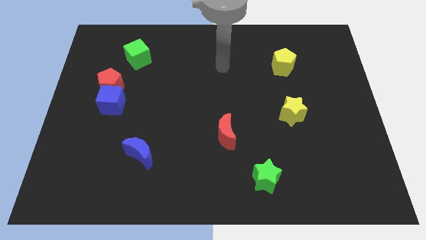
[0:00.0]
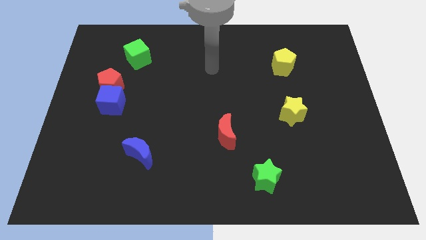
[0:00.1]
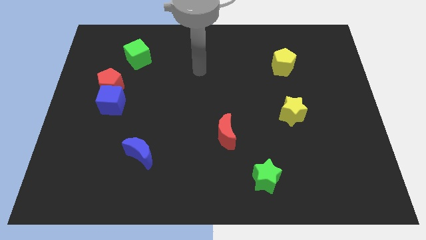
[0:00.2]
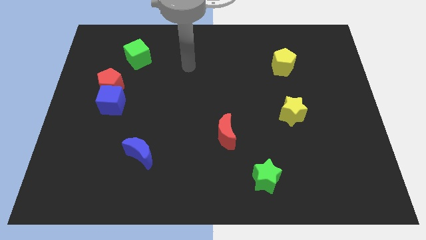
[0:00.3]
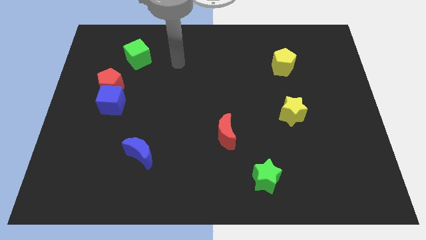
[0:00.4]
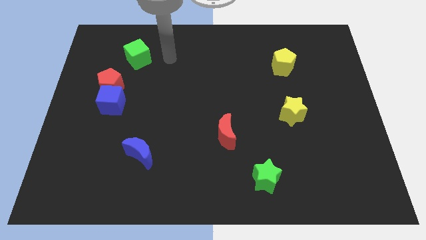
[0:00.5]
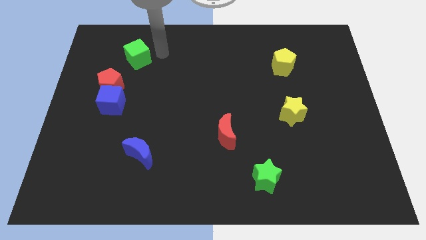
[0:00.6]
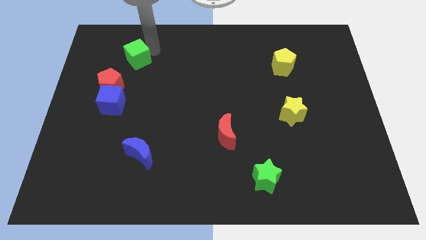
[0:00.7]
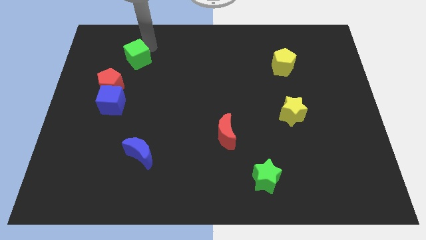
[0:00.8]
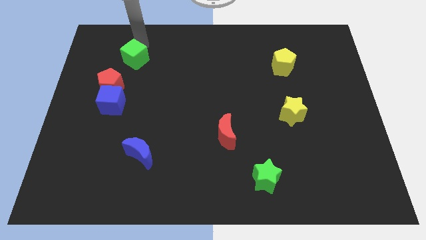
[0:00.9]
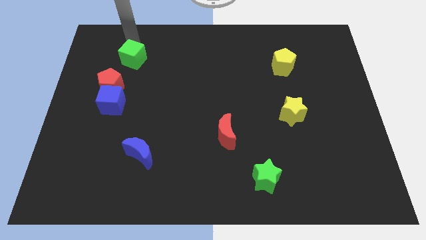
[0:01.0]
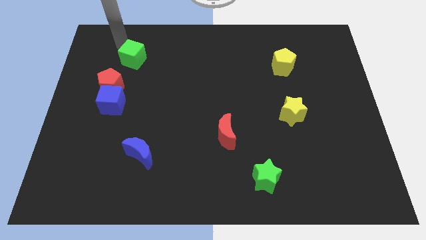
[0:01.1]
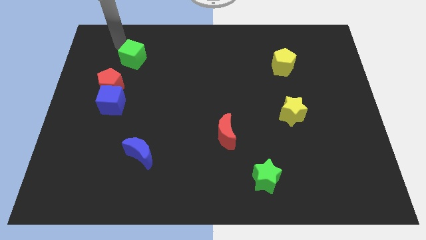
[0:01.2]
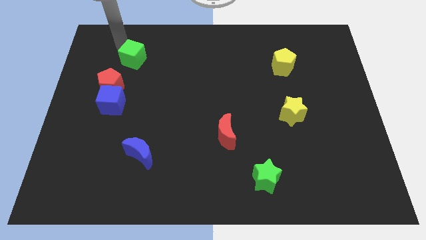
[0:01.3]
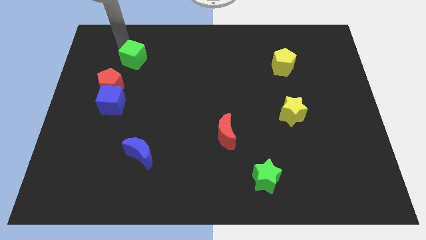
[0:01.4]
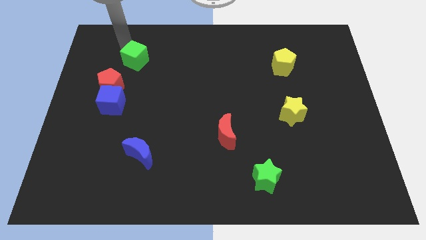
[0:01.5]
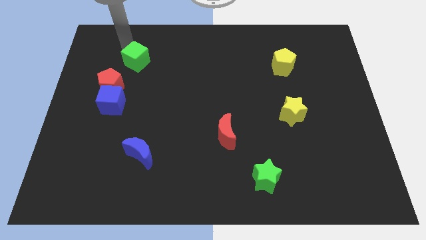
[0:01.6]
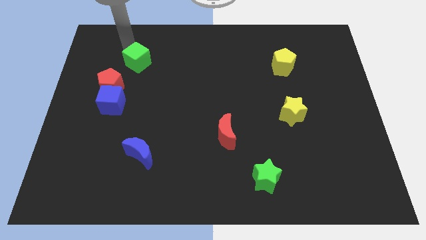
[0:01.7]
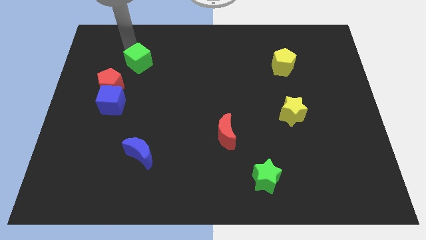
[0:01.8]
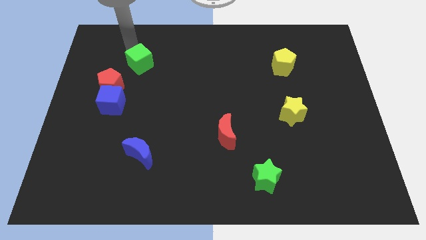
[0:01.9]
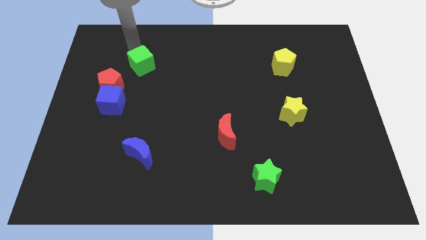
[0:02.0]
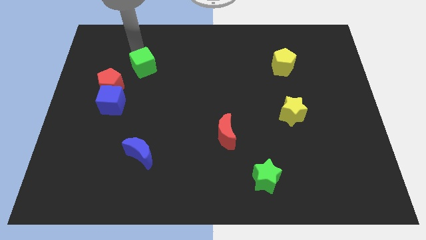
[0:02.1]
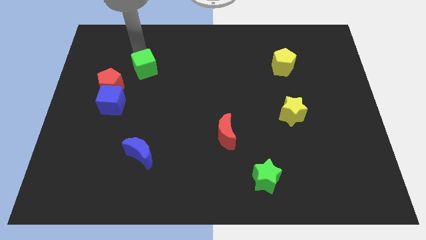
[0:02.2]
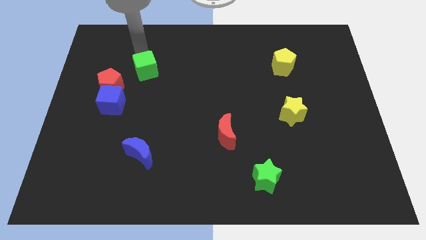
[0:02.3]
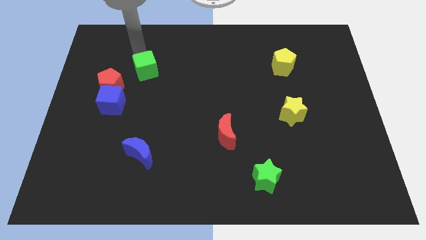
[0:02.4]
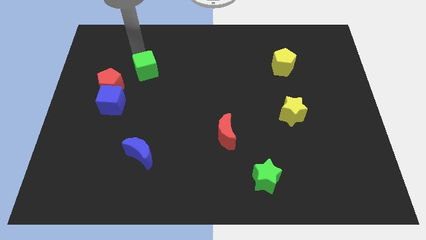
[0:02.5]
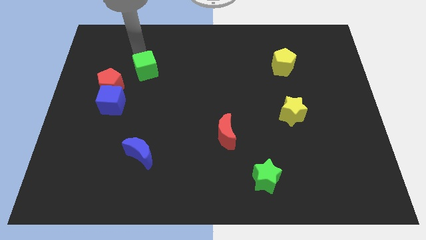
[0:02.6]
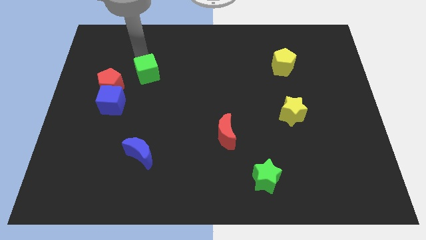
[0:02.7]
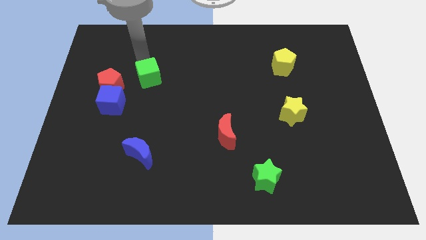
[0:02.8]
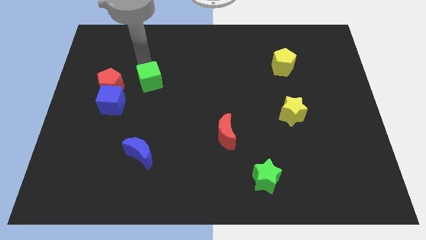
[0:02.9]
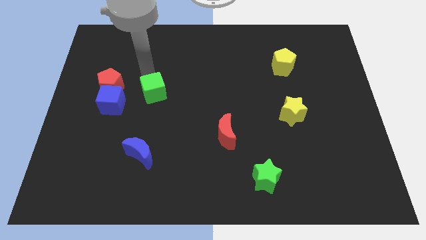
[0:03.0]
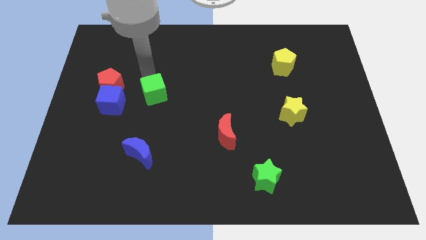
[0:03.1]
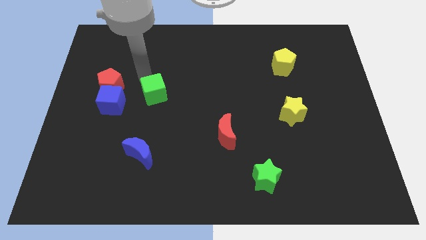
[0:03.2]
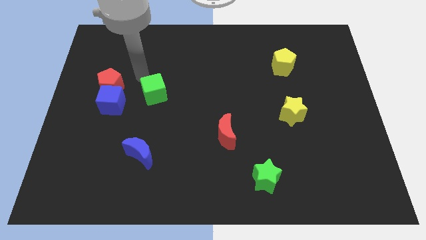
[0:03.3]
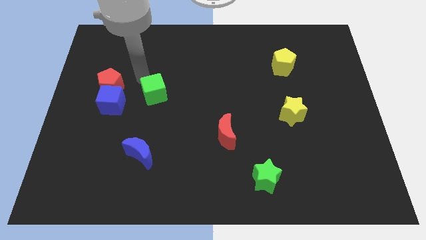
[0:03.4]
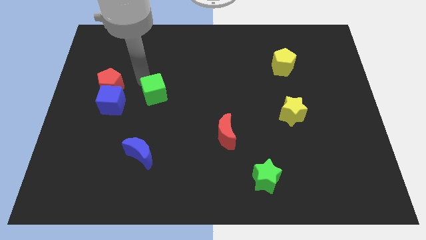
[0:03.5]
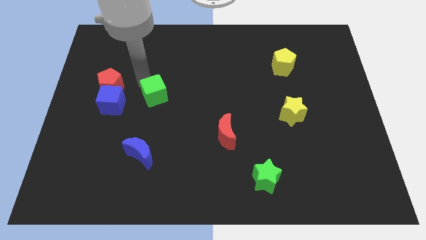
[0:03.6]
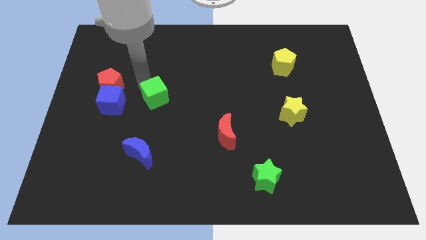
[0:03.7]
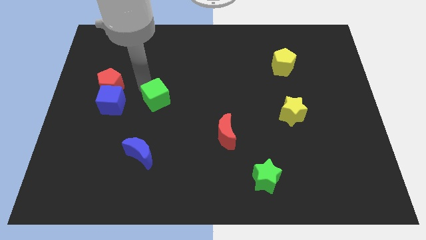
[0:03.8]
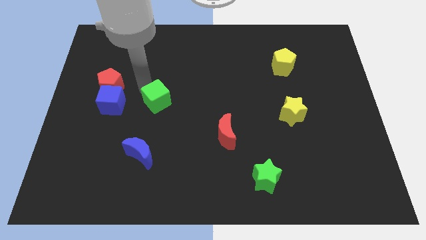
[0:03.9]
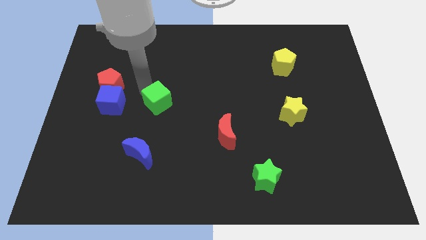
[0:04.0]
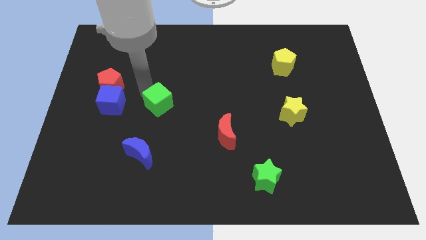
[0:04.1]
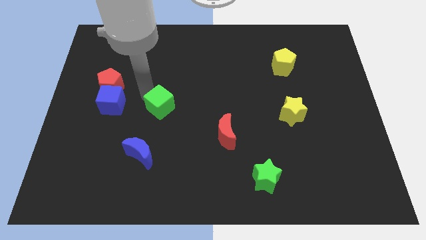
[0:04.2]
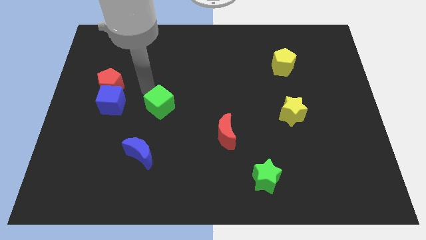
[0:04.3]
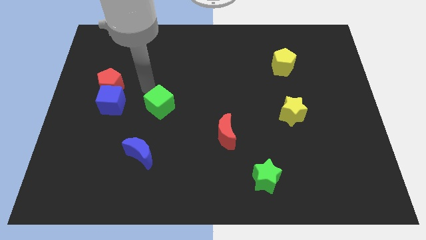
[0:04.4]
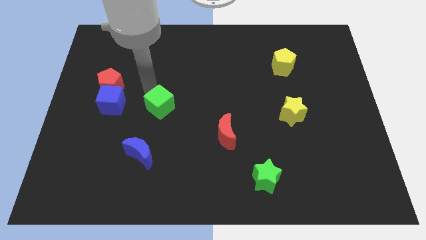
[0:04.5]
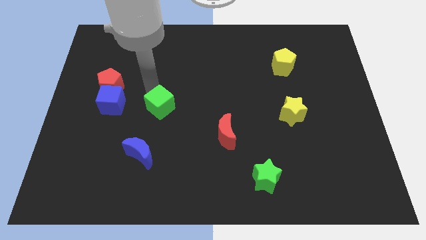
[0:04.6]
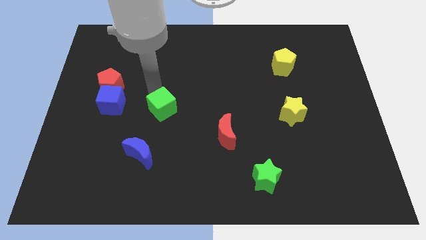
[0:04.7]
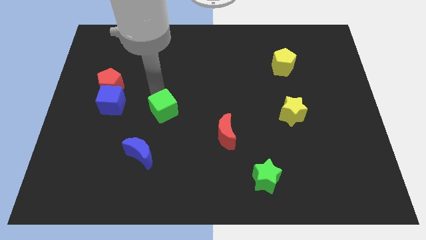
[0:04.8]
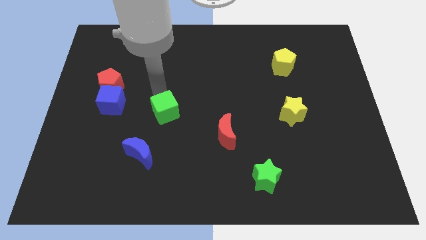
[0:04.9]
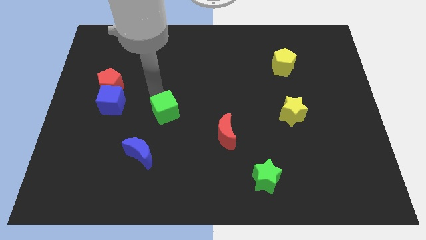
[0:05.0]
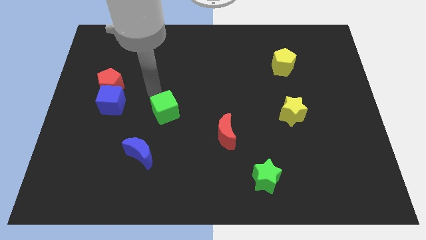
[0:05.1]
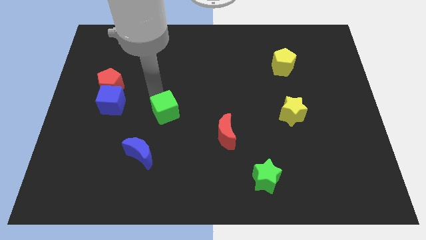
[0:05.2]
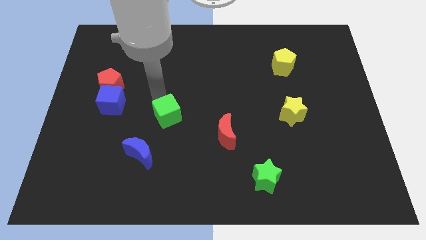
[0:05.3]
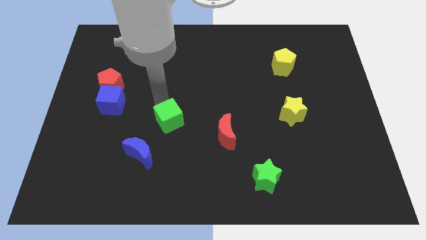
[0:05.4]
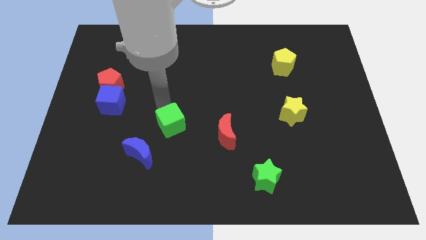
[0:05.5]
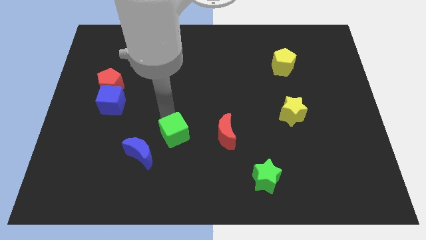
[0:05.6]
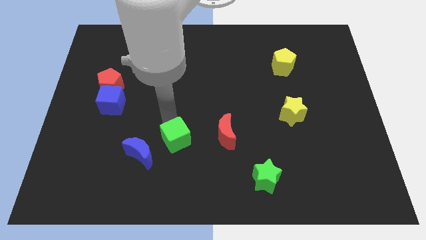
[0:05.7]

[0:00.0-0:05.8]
push the green cube to the right side of the blue moon

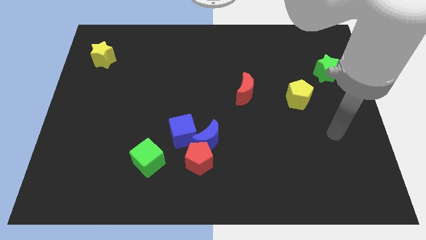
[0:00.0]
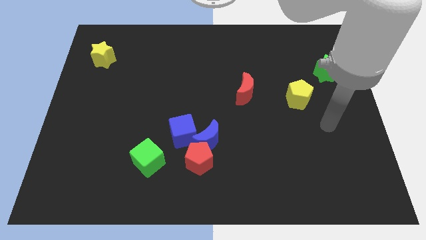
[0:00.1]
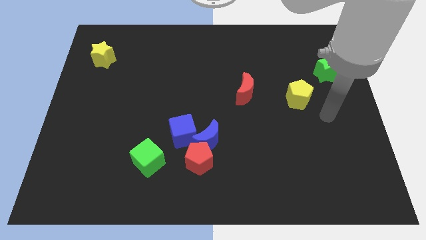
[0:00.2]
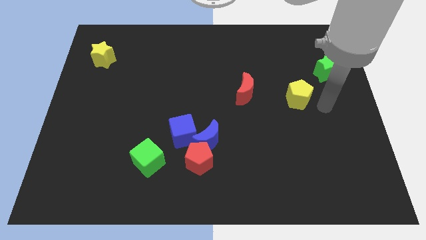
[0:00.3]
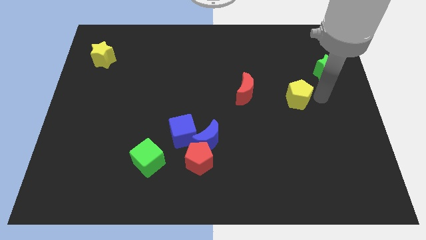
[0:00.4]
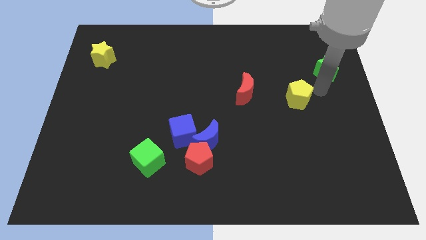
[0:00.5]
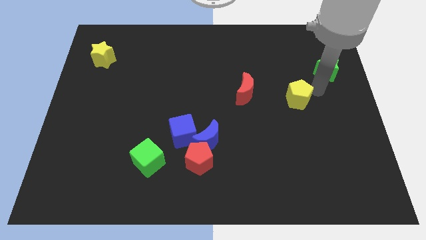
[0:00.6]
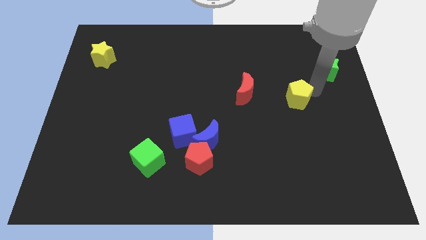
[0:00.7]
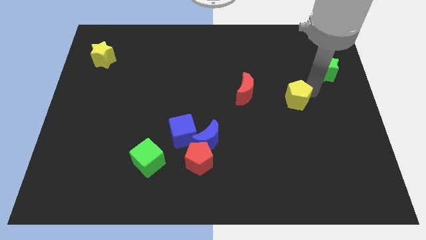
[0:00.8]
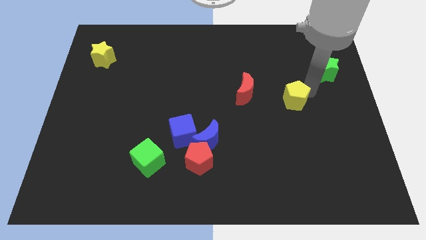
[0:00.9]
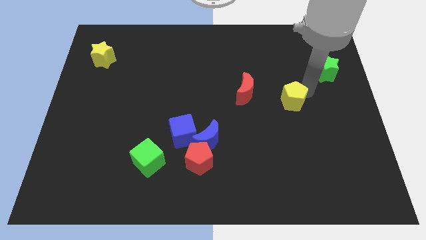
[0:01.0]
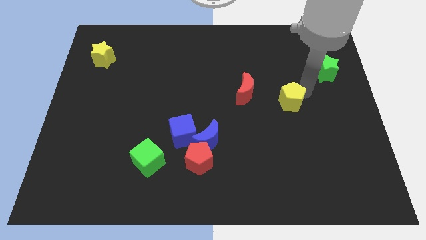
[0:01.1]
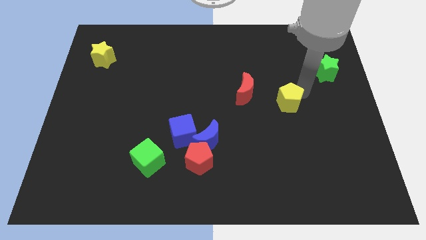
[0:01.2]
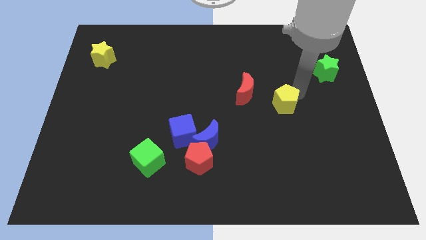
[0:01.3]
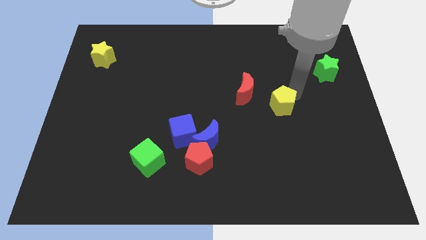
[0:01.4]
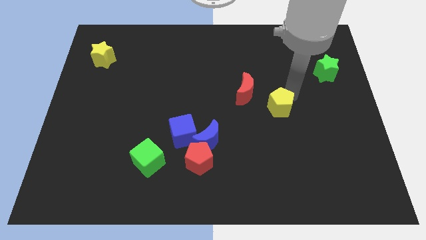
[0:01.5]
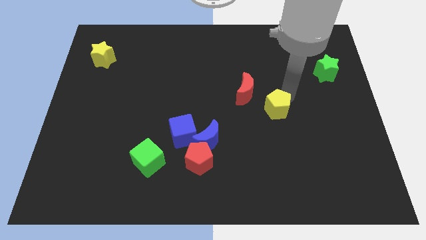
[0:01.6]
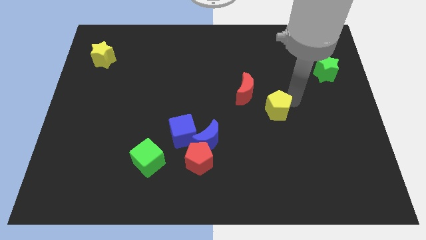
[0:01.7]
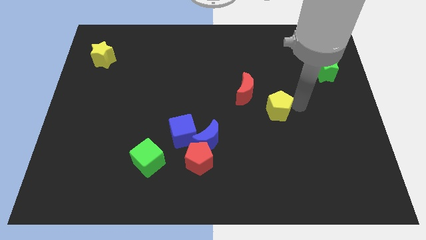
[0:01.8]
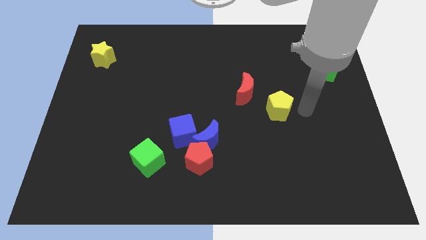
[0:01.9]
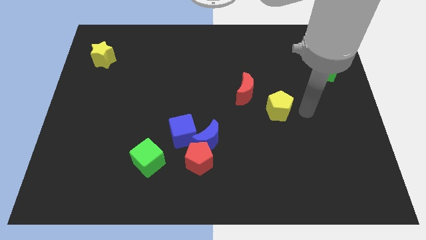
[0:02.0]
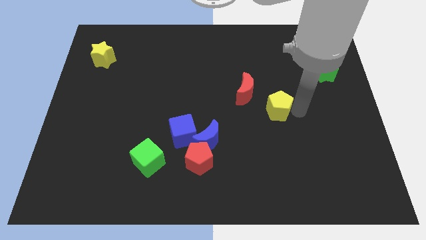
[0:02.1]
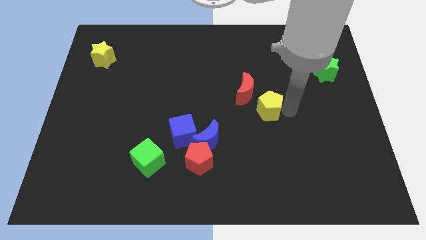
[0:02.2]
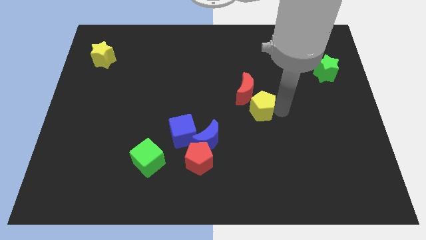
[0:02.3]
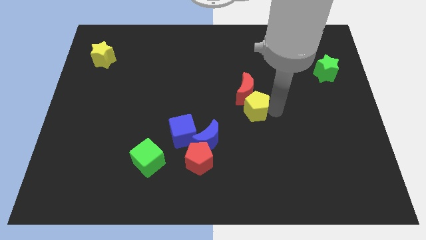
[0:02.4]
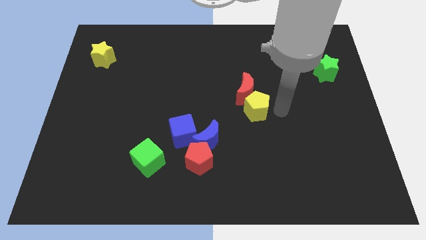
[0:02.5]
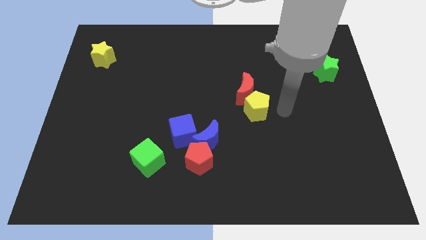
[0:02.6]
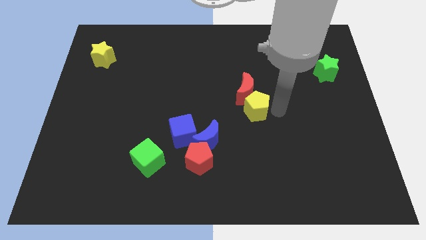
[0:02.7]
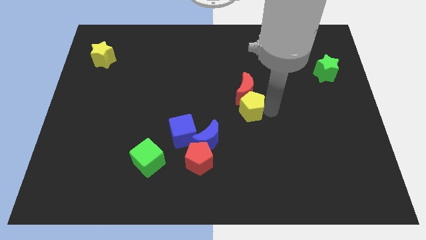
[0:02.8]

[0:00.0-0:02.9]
slide the yellow pentagon to the bottom left side of the red moon
